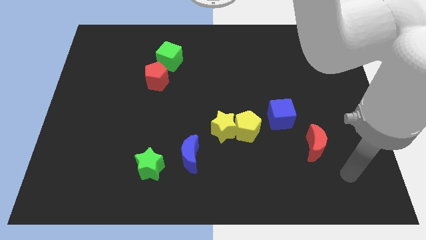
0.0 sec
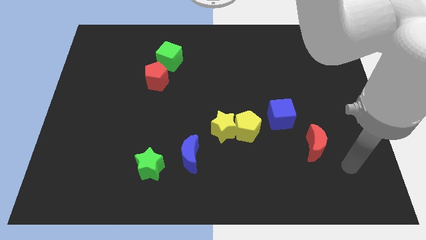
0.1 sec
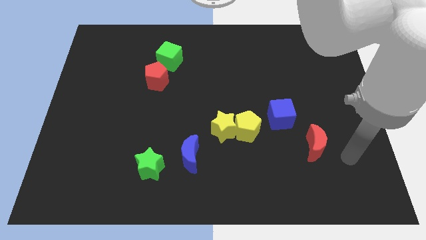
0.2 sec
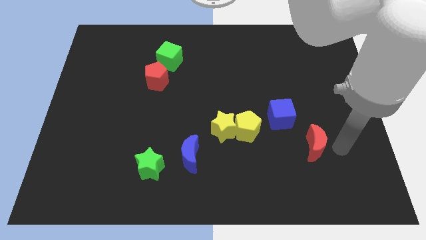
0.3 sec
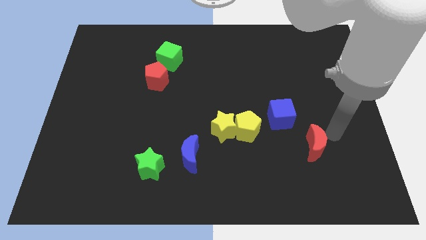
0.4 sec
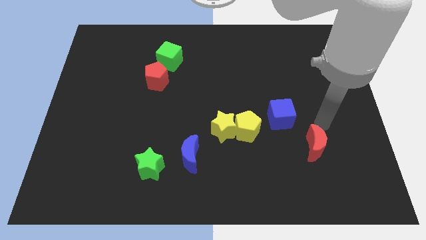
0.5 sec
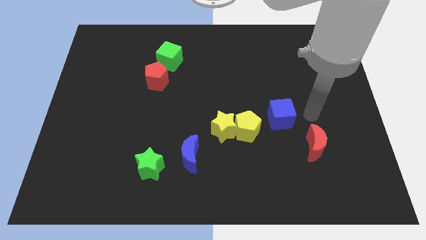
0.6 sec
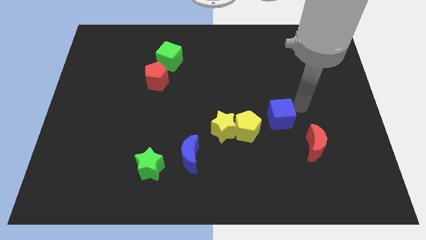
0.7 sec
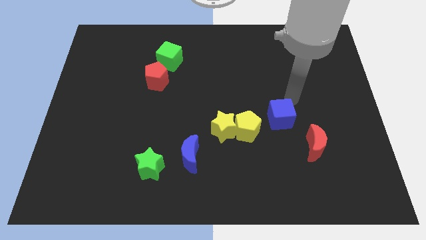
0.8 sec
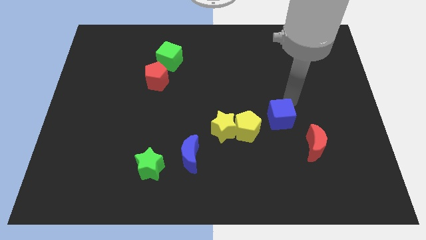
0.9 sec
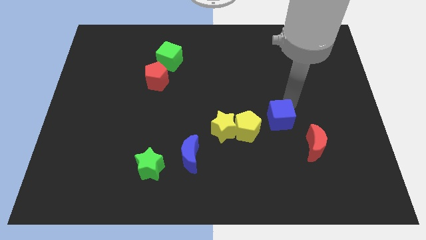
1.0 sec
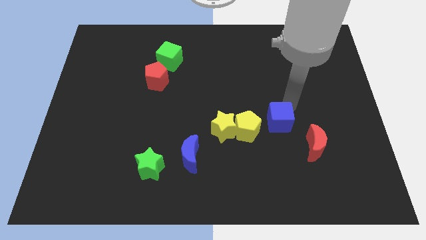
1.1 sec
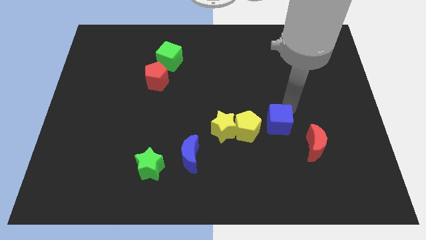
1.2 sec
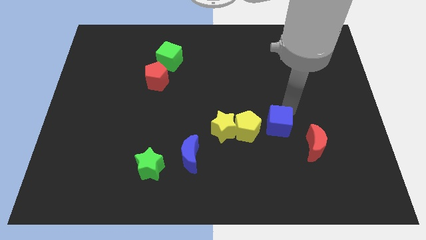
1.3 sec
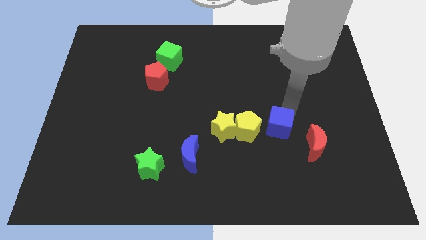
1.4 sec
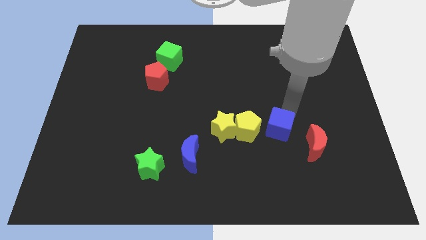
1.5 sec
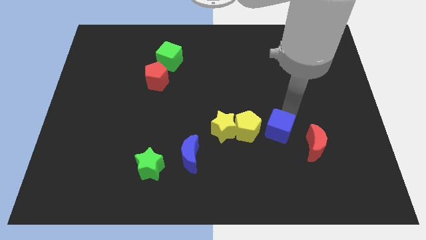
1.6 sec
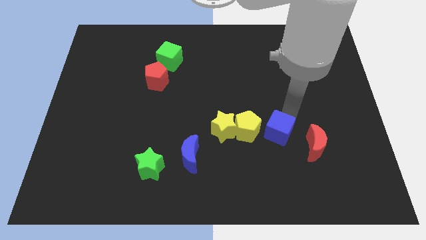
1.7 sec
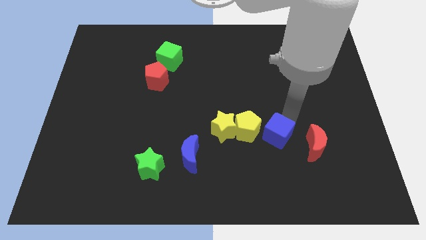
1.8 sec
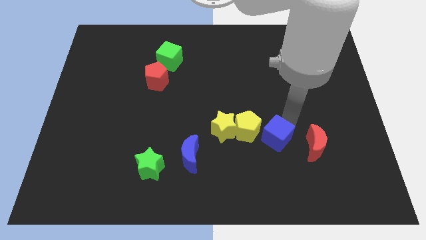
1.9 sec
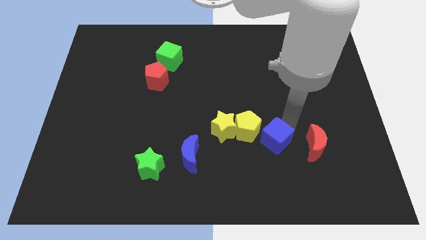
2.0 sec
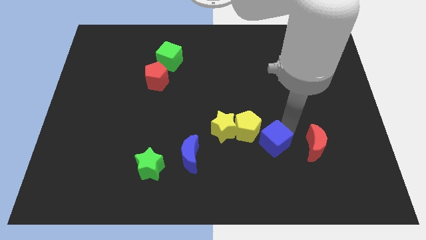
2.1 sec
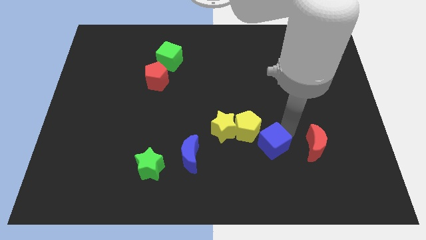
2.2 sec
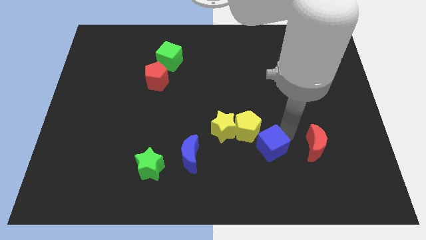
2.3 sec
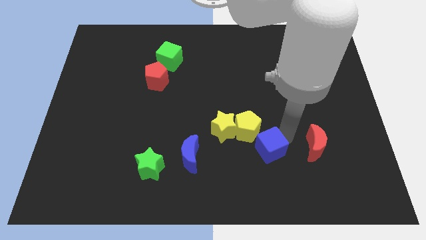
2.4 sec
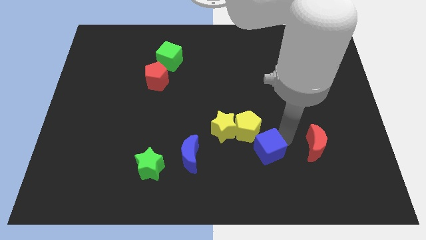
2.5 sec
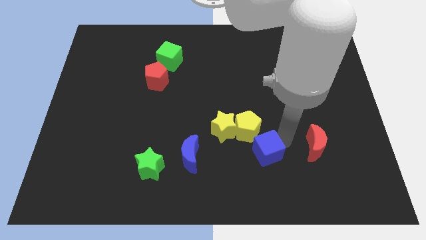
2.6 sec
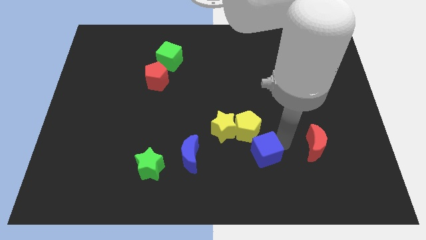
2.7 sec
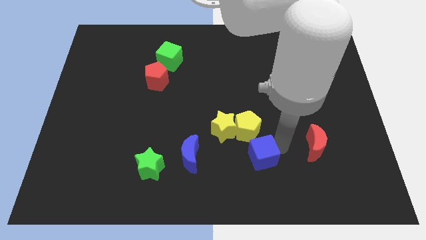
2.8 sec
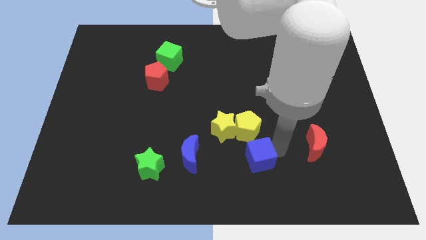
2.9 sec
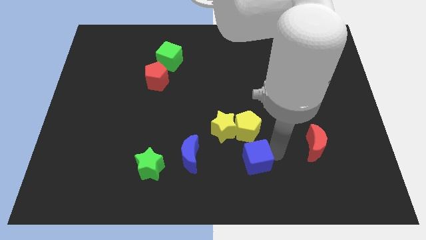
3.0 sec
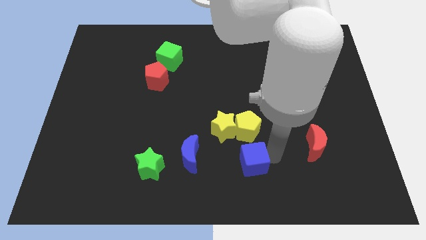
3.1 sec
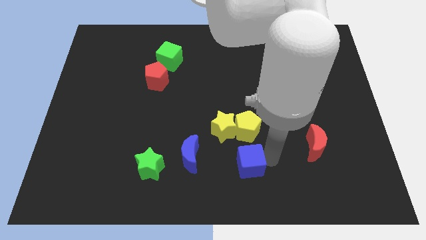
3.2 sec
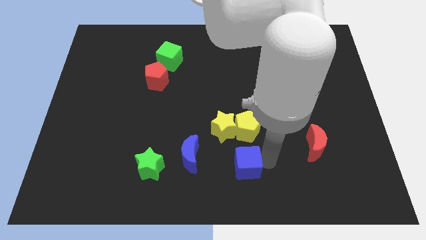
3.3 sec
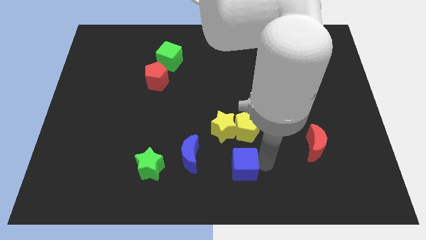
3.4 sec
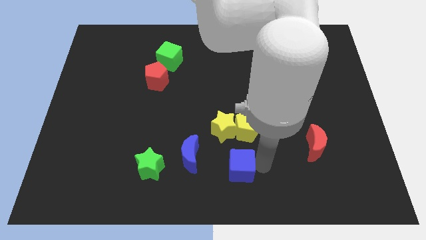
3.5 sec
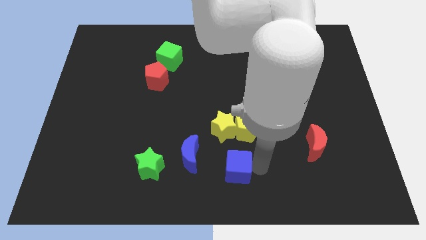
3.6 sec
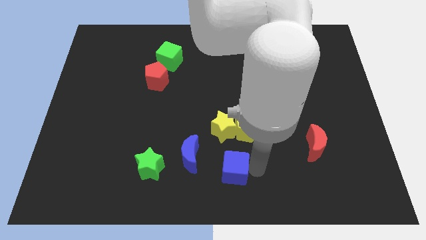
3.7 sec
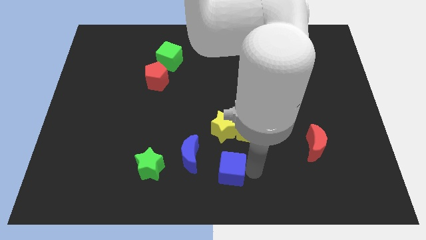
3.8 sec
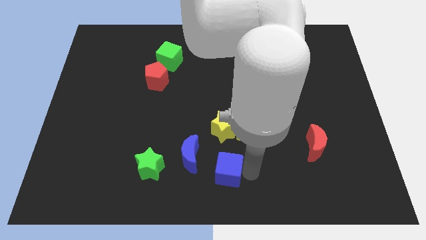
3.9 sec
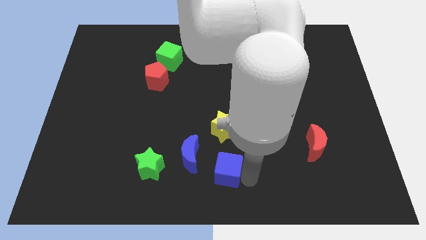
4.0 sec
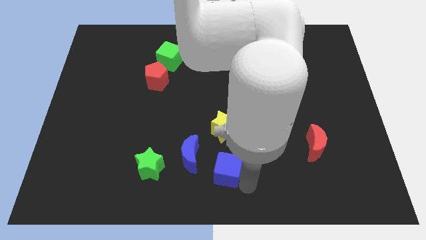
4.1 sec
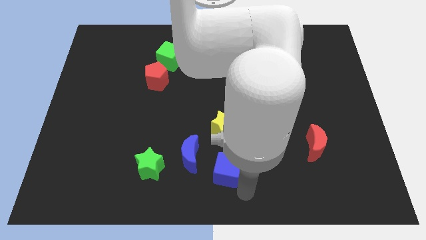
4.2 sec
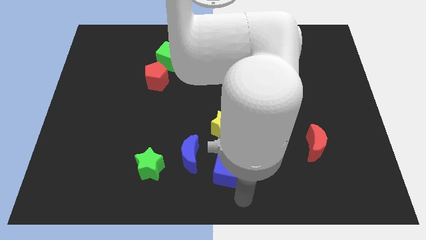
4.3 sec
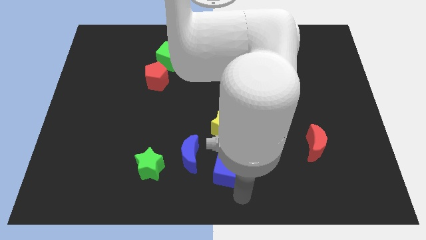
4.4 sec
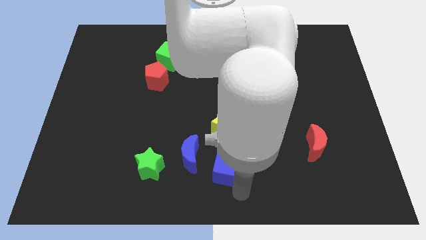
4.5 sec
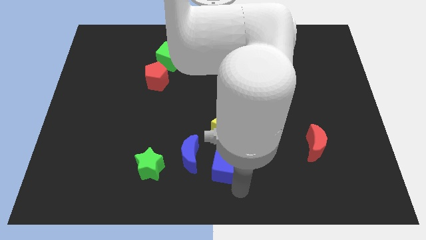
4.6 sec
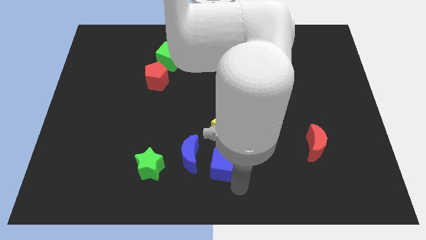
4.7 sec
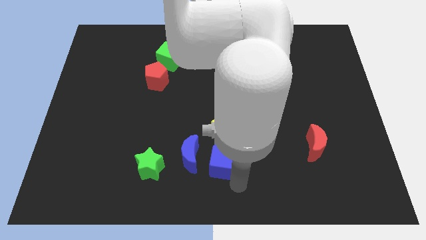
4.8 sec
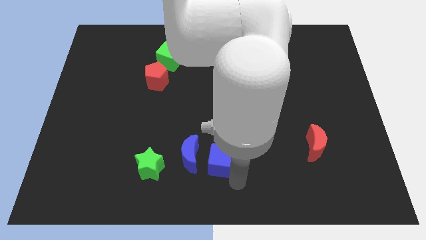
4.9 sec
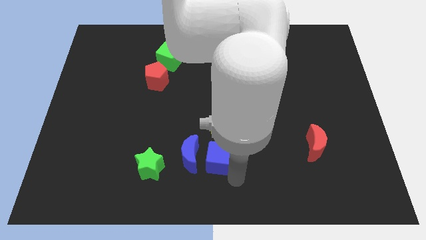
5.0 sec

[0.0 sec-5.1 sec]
move the blue cube next to the blue moon

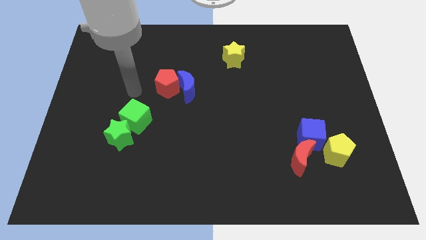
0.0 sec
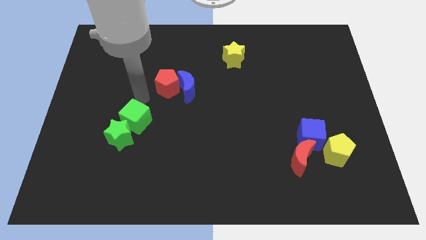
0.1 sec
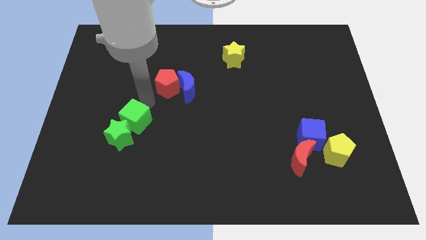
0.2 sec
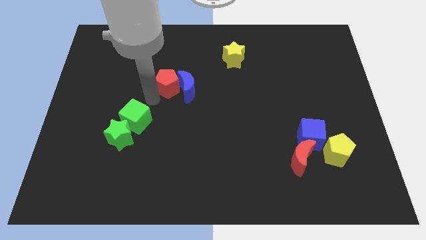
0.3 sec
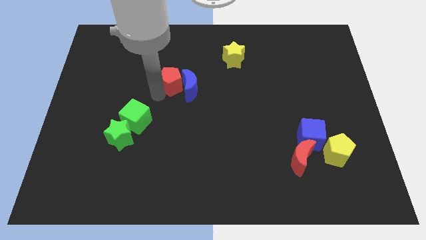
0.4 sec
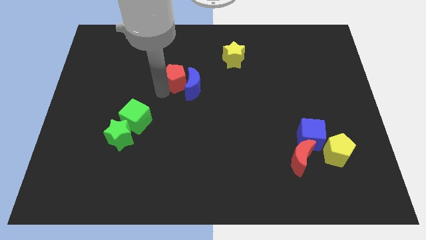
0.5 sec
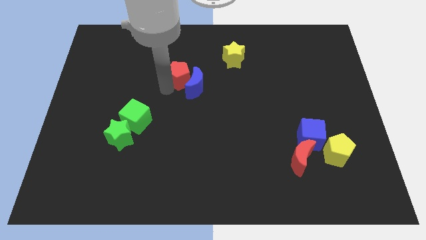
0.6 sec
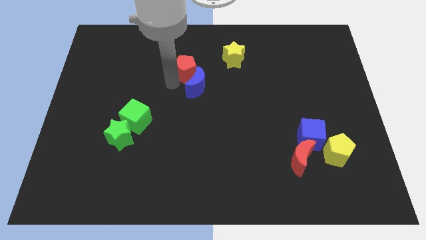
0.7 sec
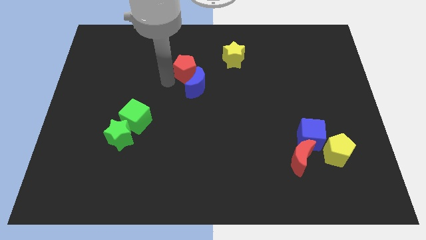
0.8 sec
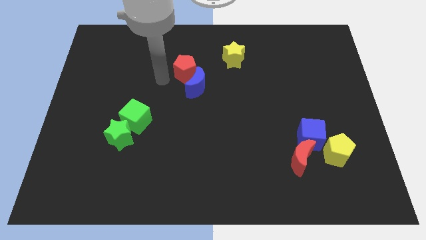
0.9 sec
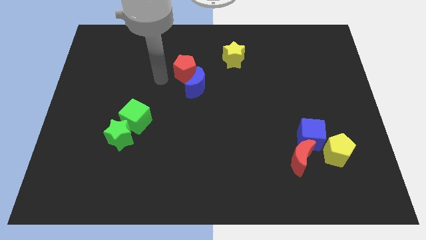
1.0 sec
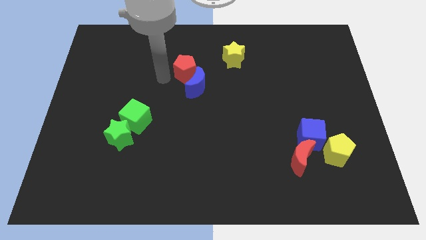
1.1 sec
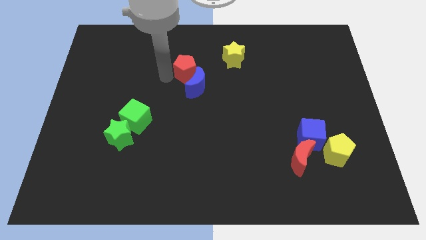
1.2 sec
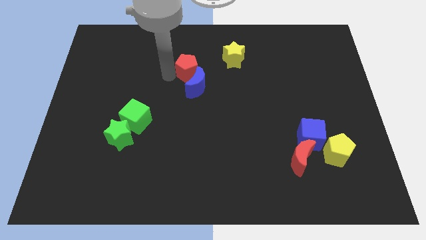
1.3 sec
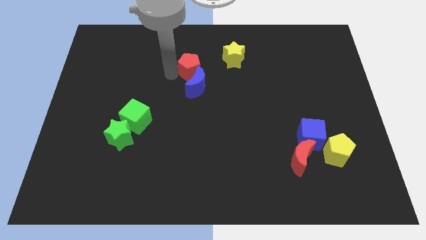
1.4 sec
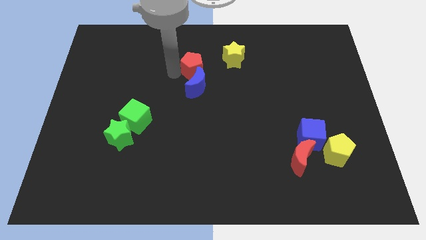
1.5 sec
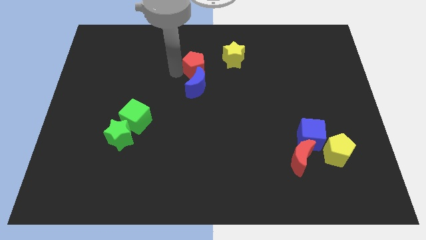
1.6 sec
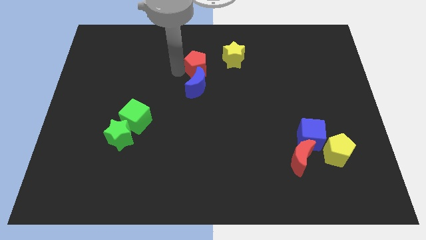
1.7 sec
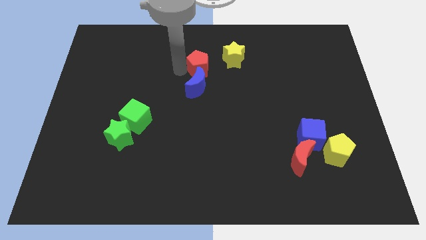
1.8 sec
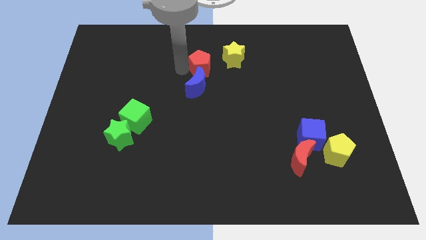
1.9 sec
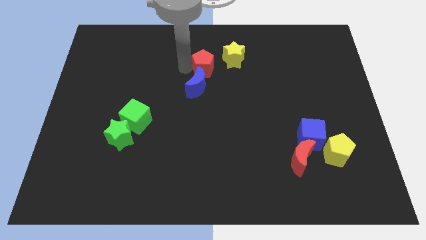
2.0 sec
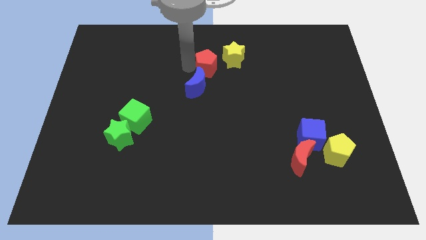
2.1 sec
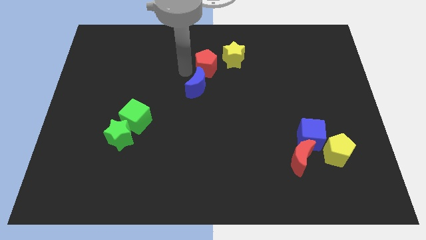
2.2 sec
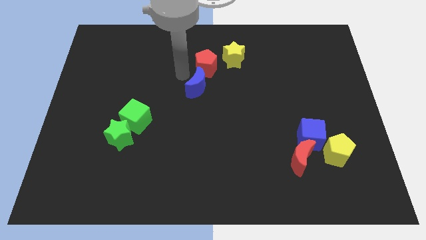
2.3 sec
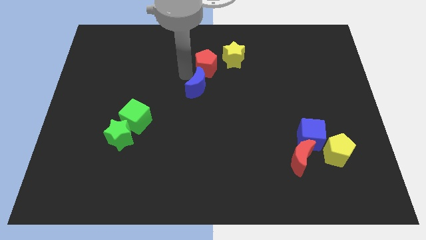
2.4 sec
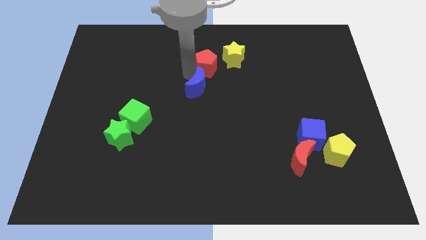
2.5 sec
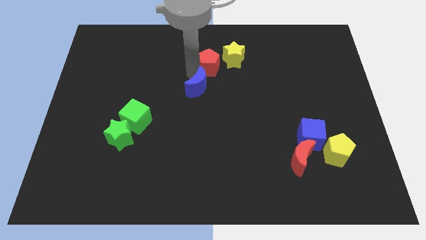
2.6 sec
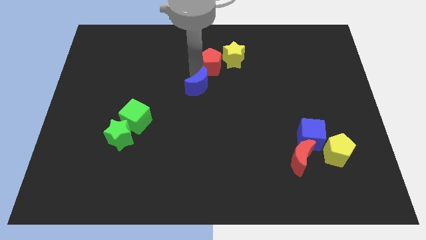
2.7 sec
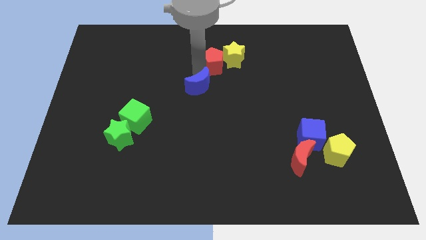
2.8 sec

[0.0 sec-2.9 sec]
move the red pentagon next to the yellow star
